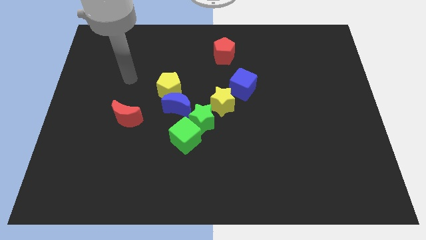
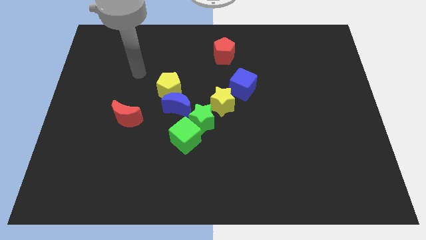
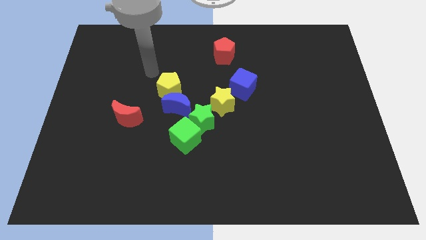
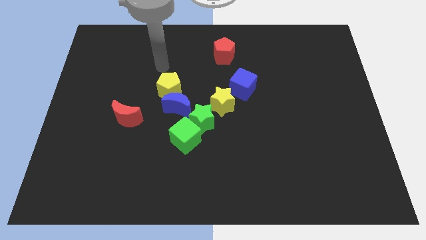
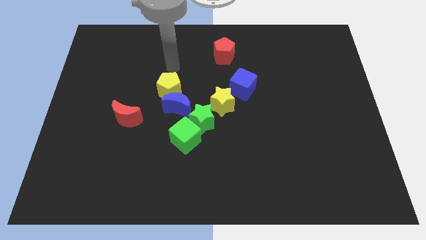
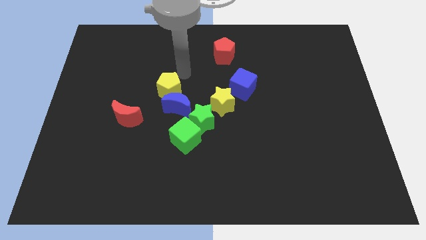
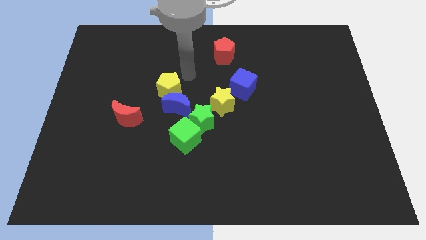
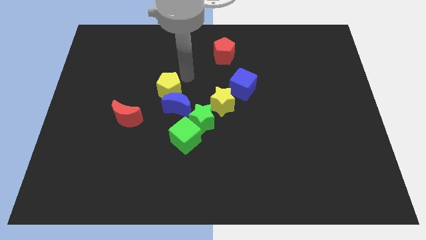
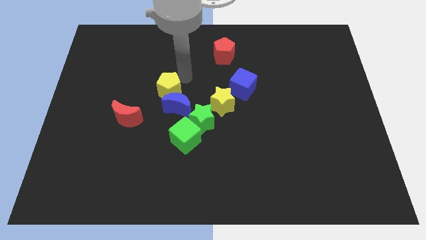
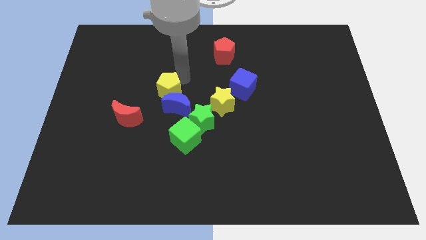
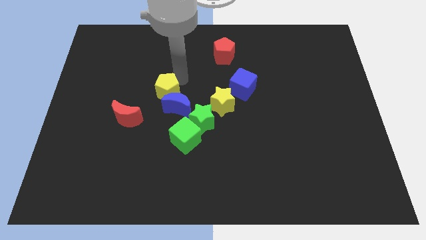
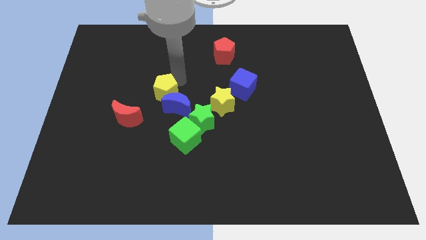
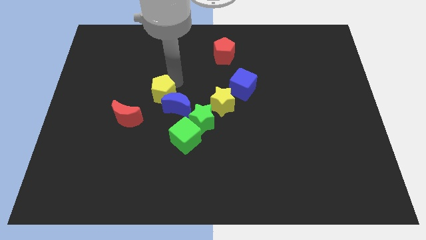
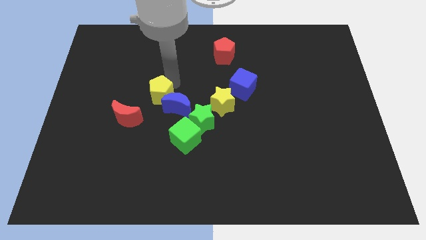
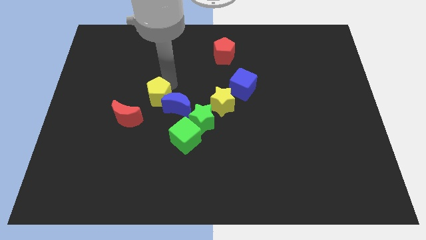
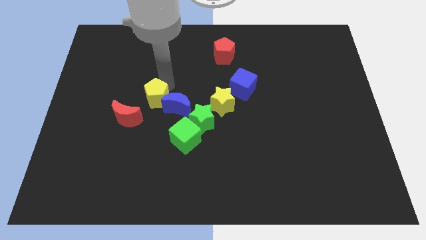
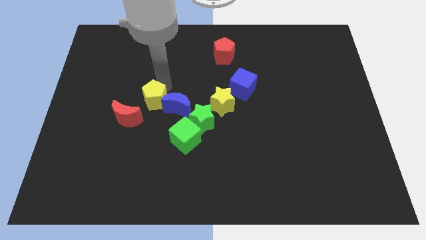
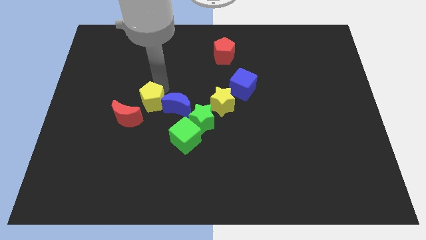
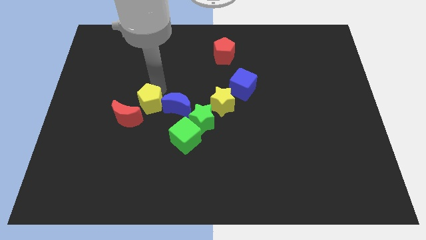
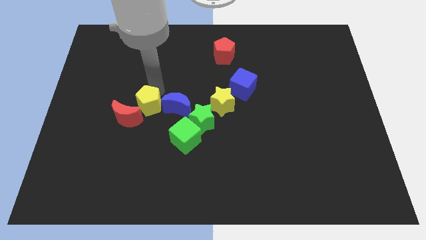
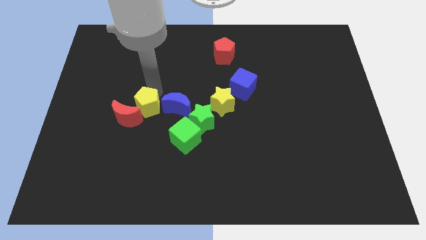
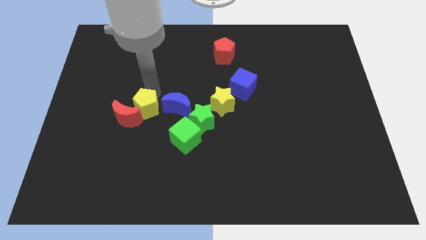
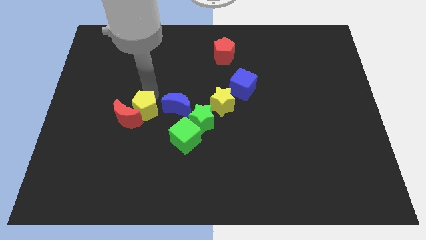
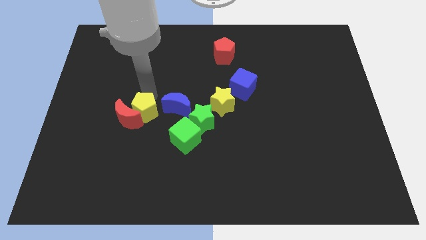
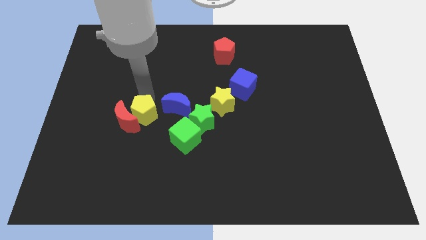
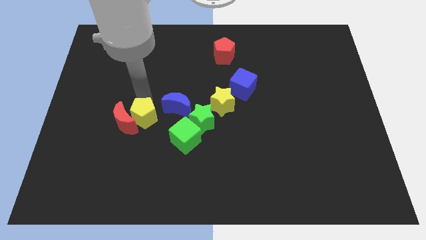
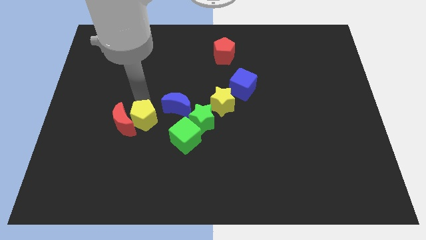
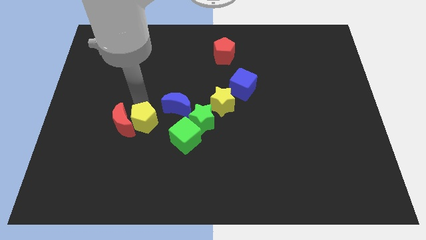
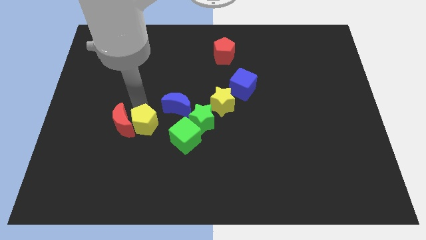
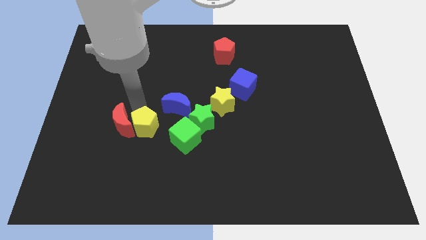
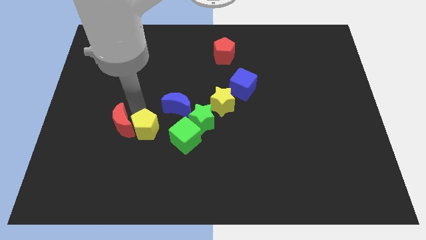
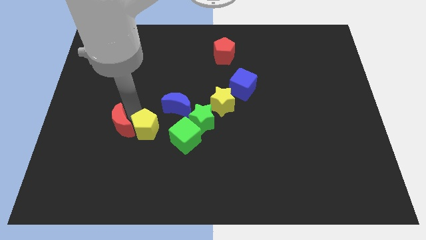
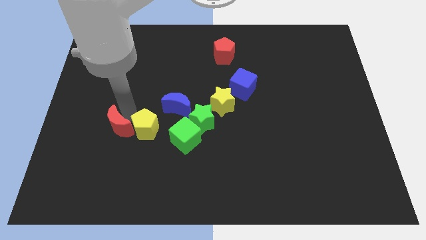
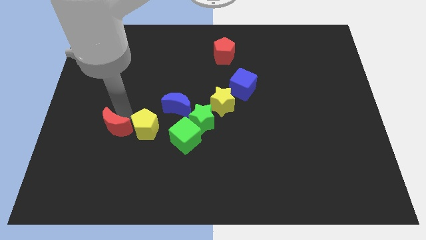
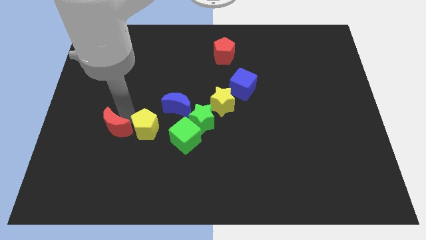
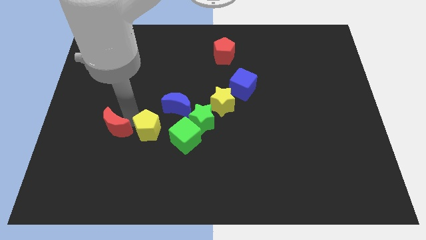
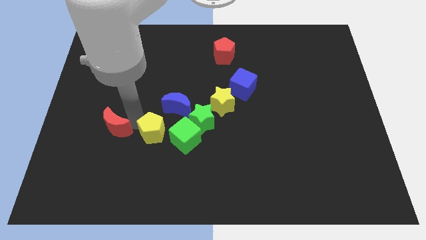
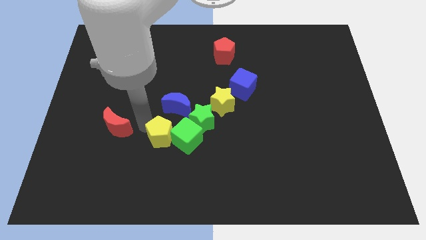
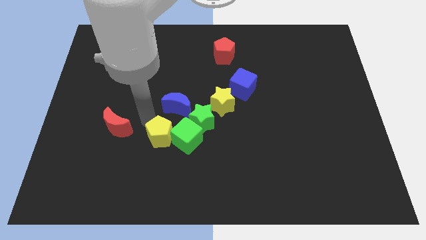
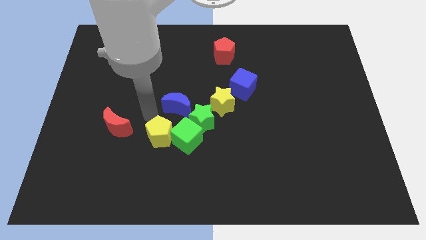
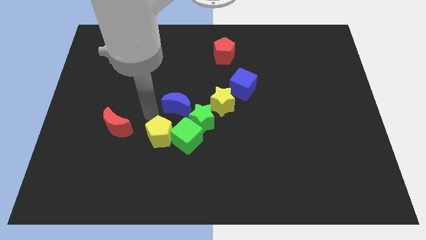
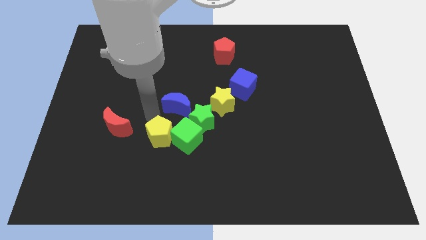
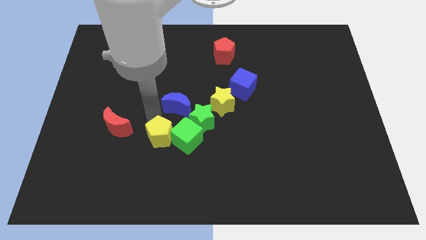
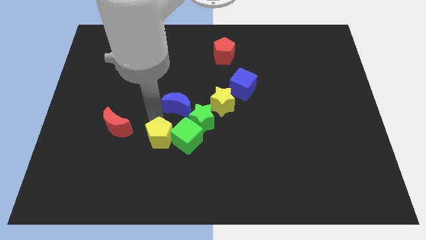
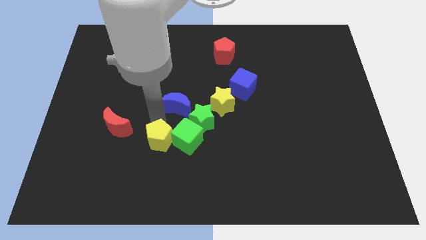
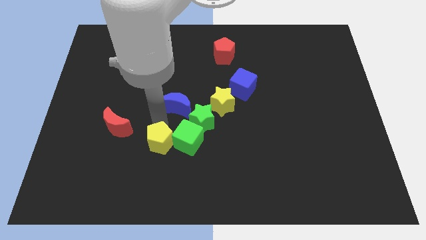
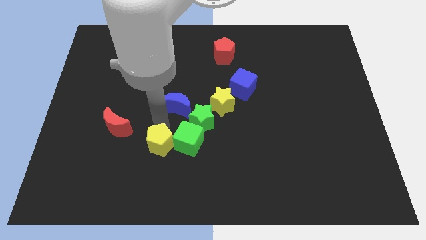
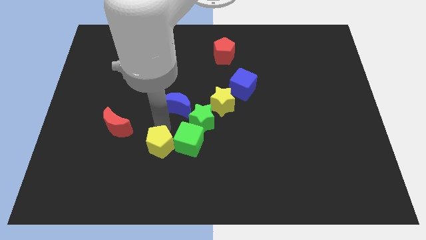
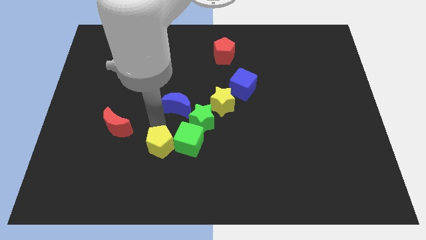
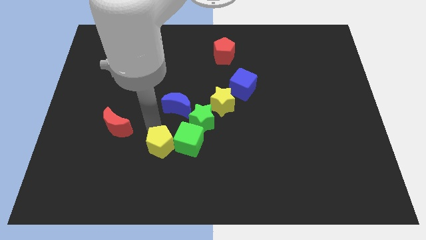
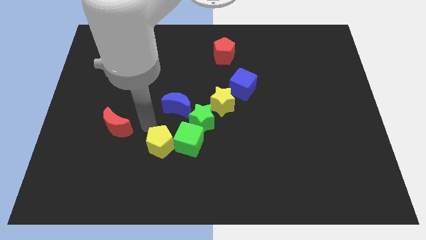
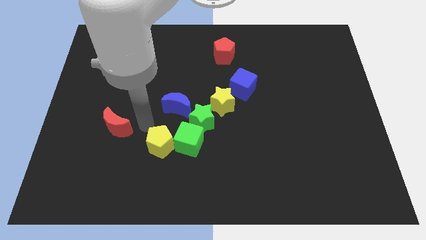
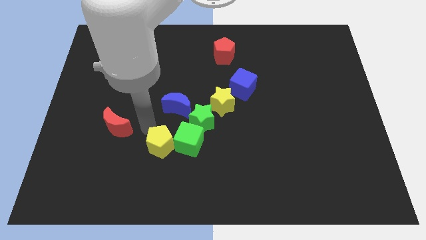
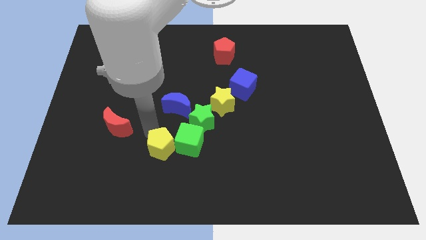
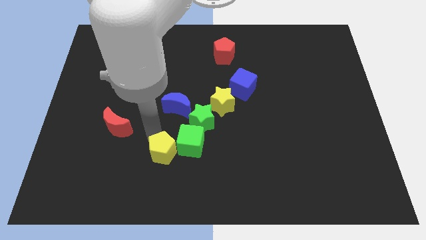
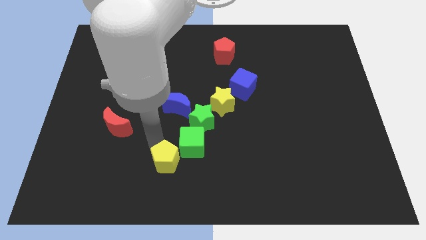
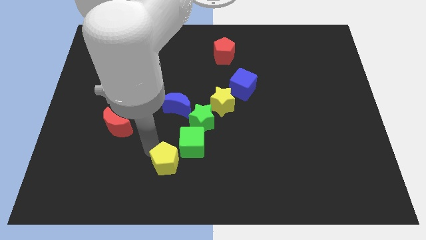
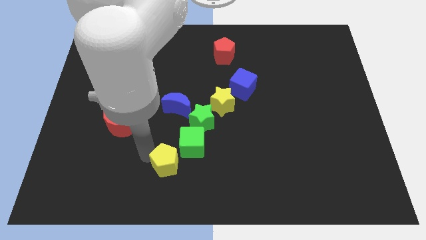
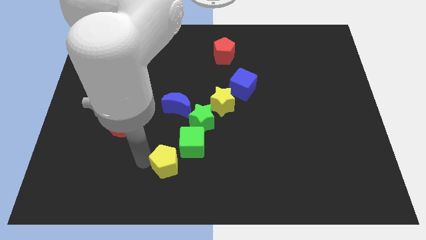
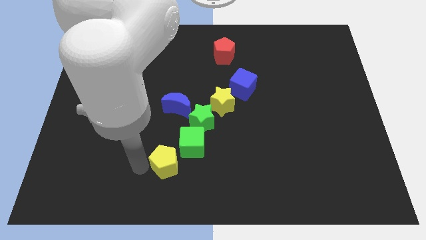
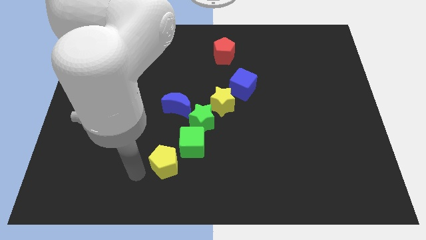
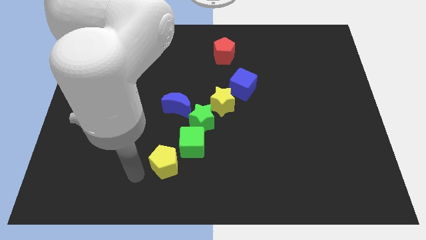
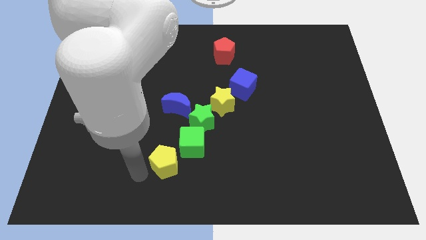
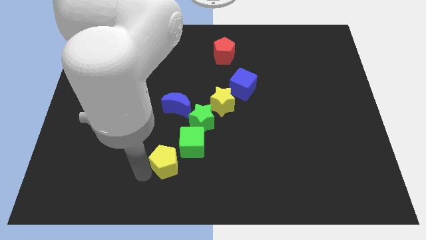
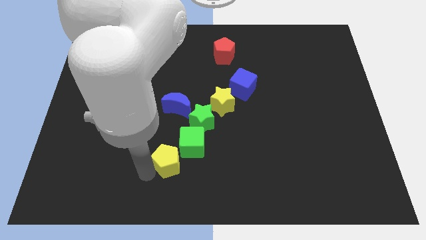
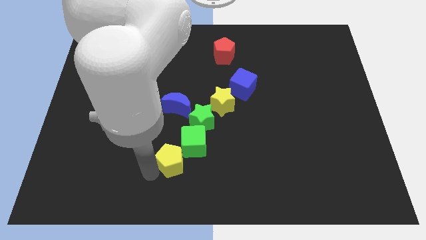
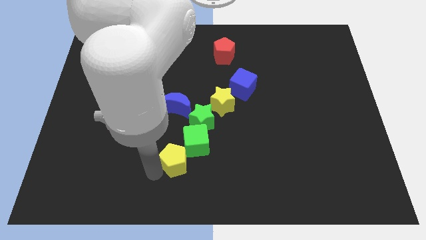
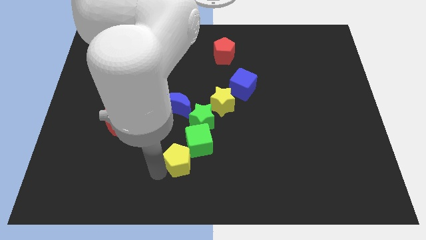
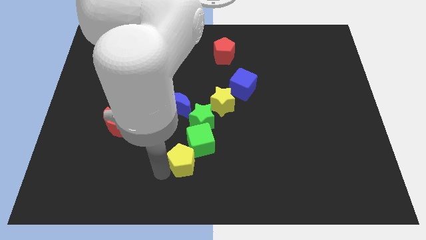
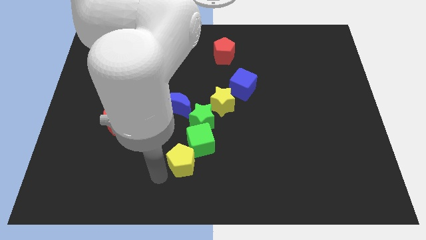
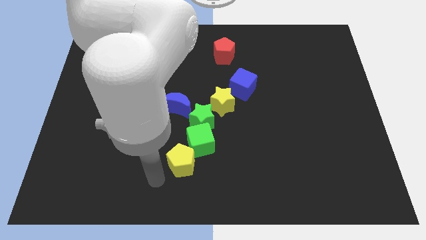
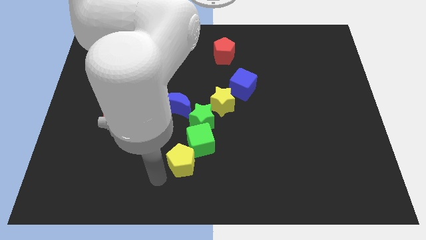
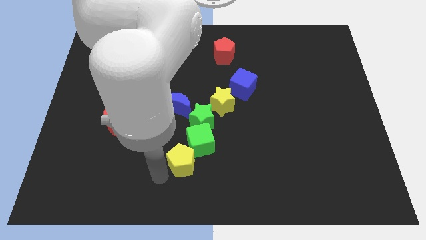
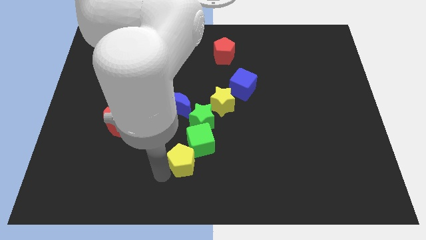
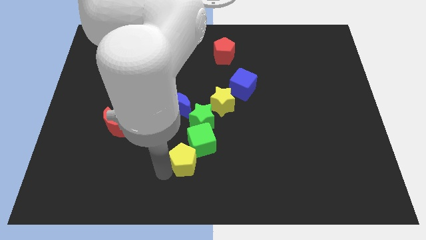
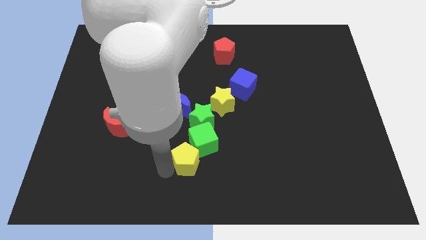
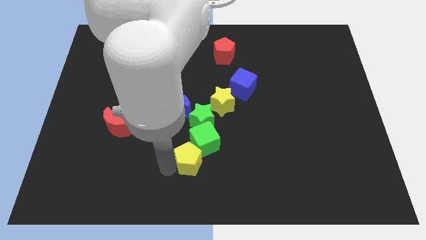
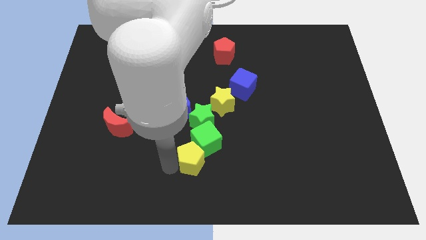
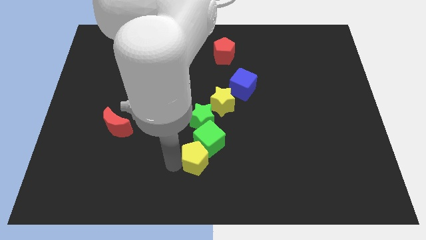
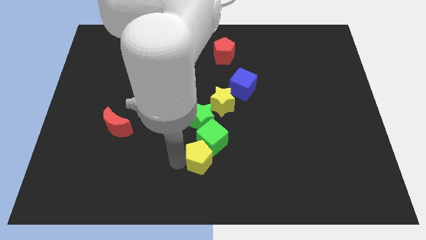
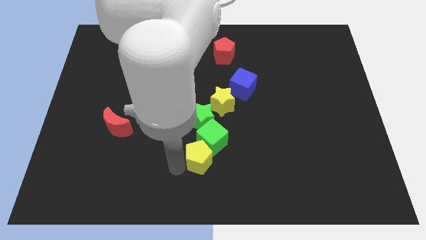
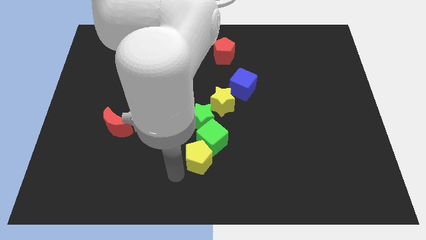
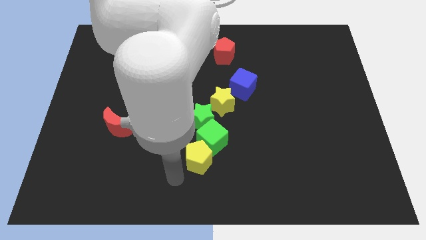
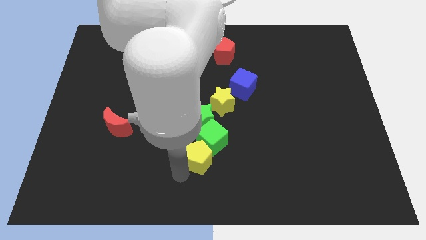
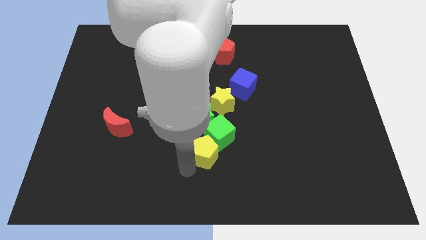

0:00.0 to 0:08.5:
move the yellow pentagon to the bottom of the yellow star
